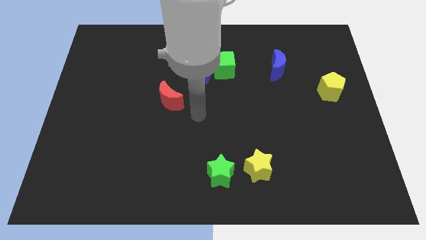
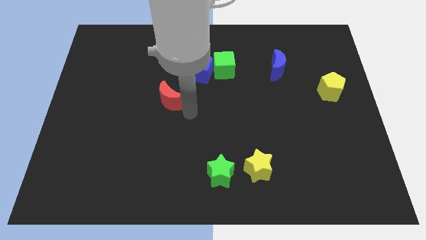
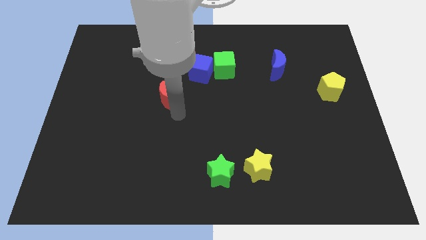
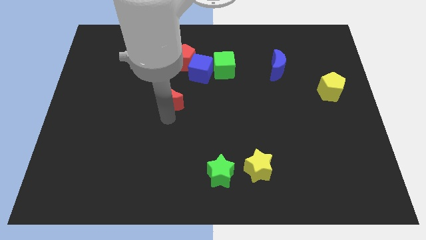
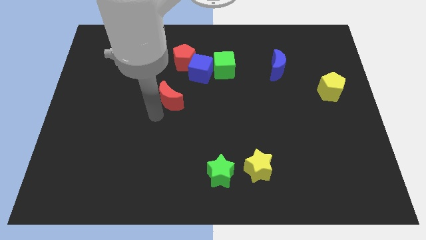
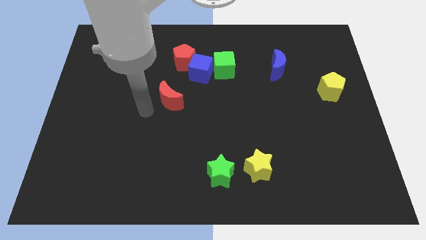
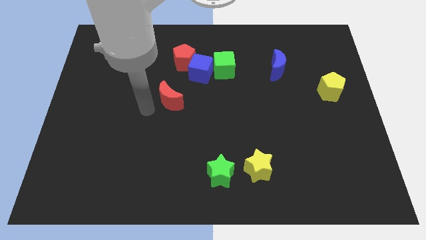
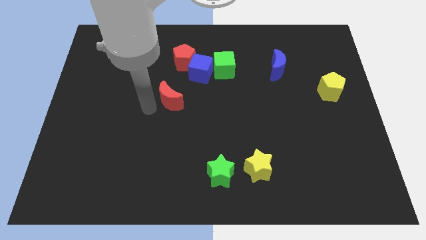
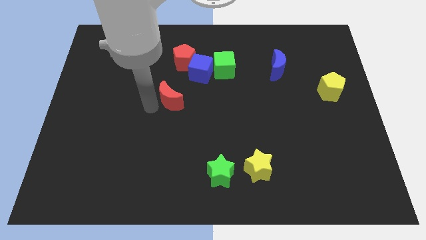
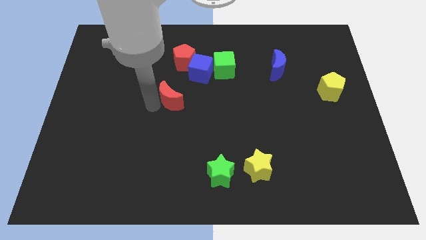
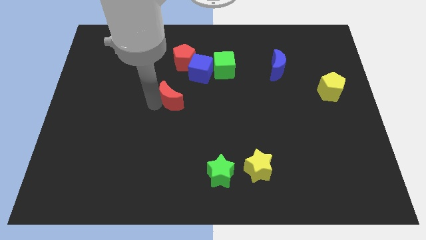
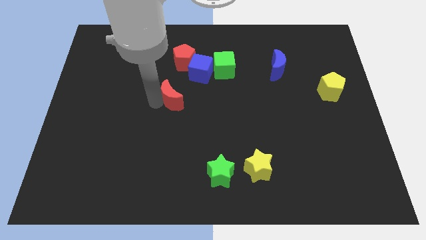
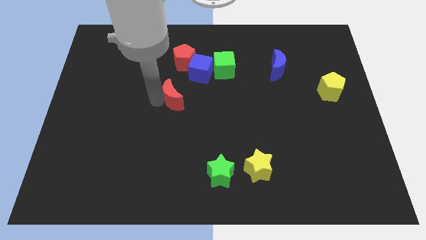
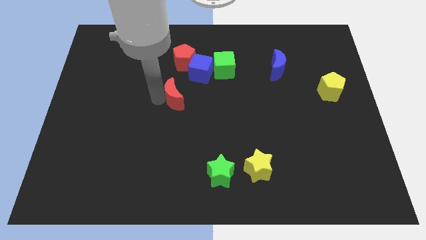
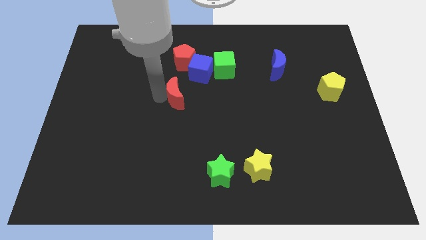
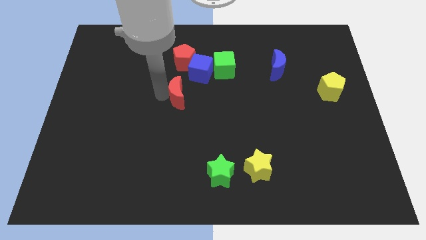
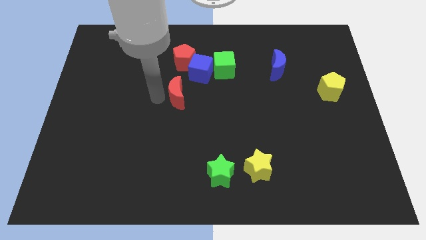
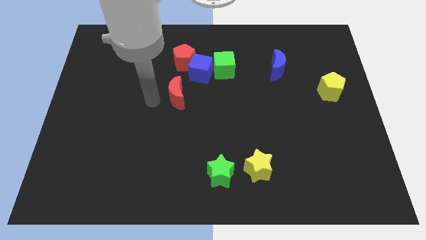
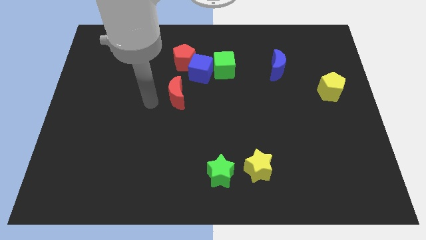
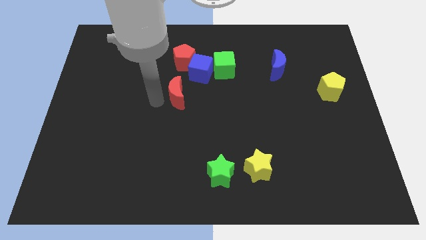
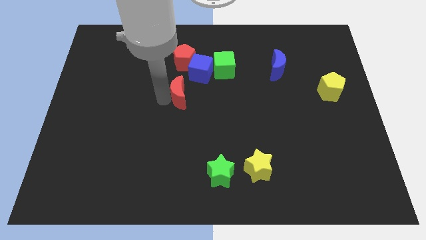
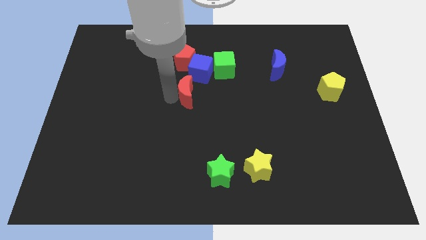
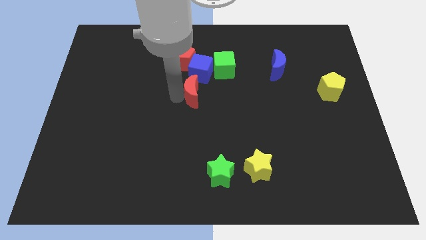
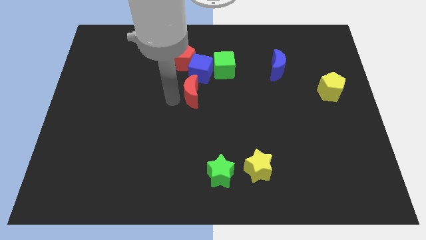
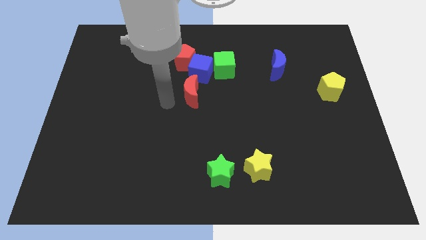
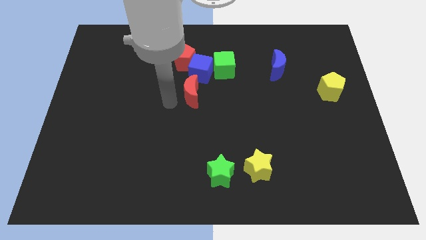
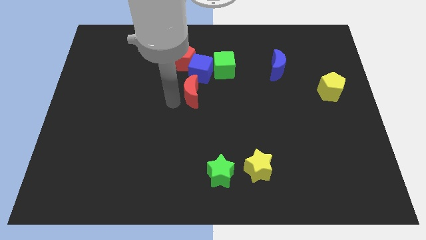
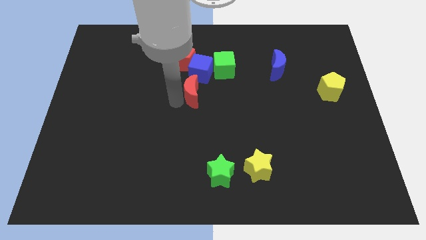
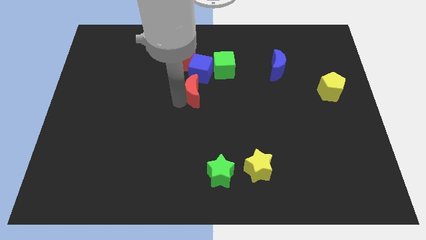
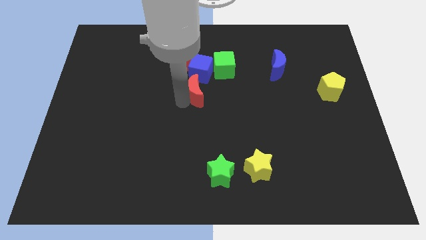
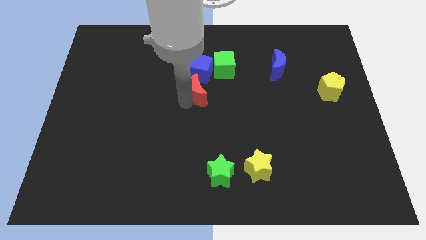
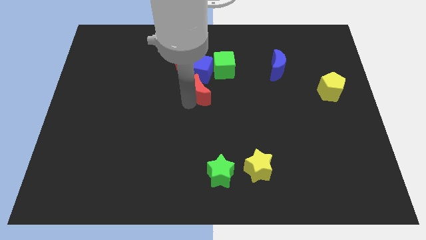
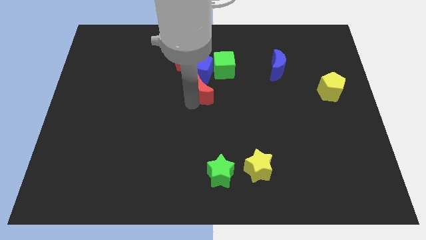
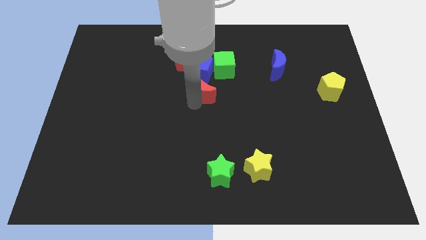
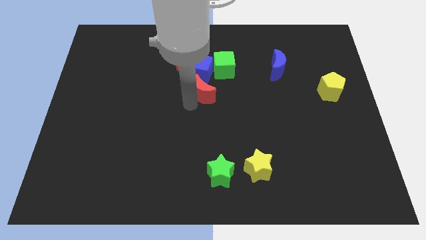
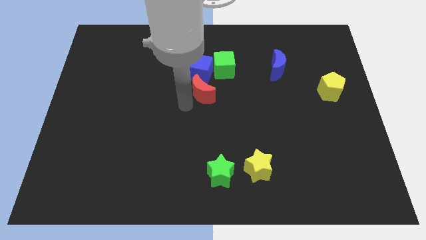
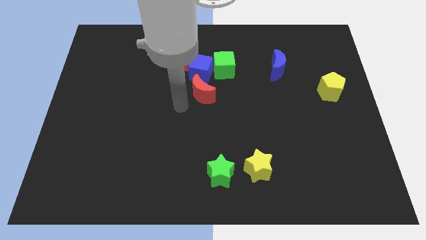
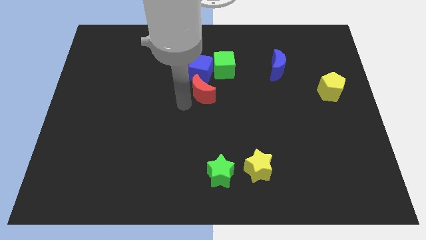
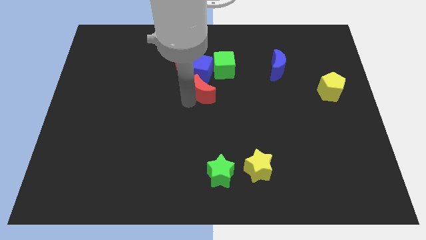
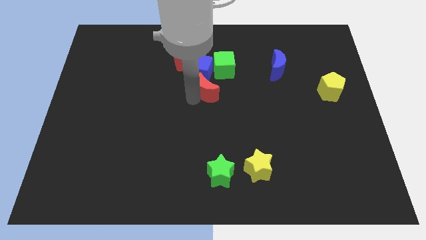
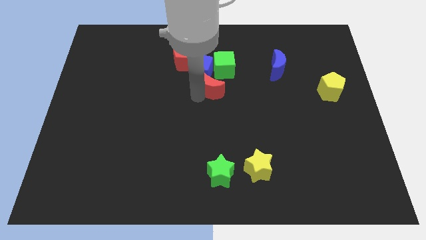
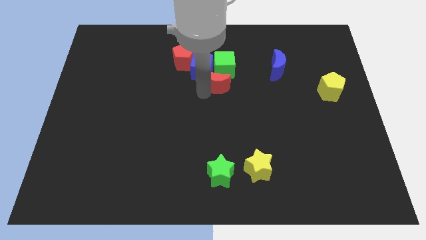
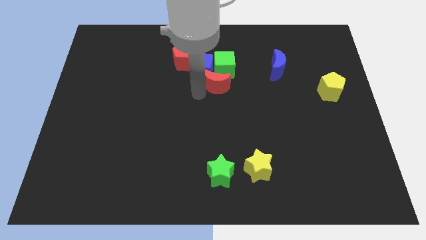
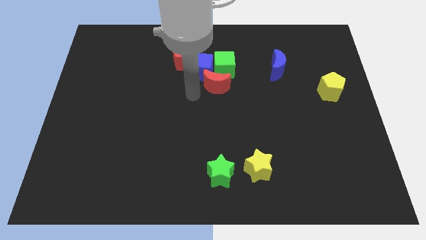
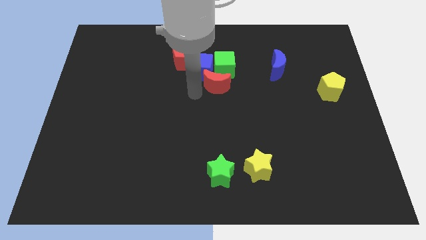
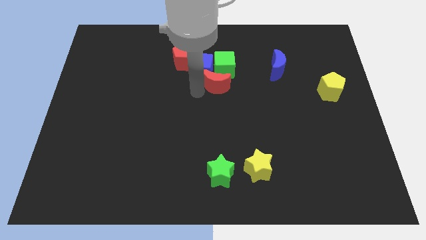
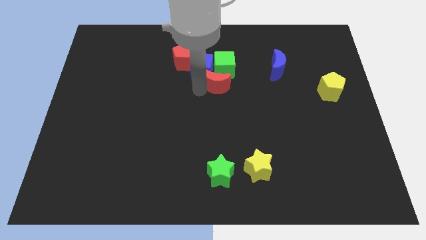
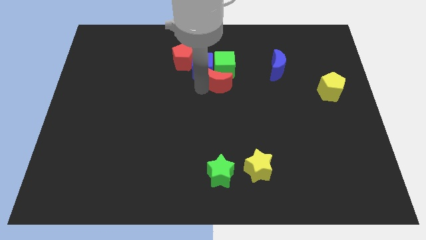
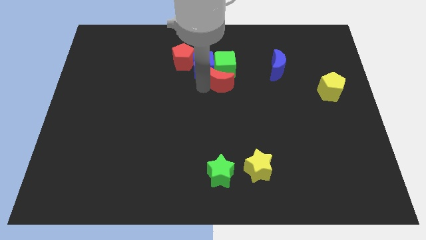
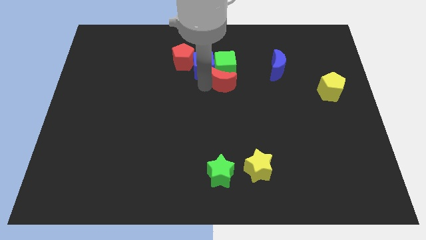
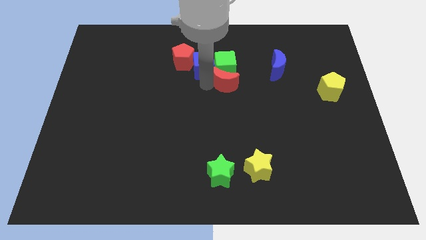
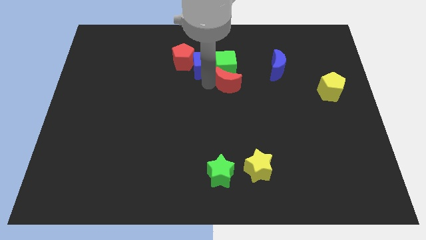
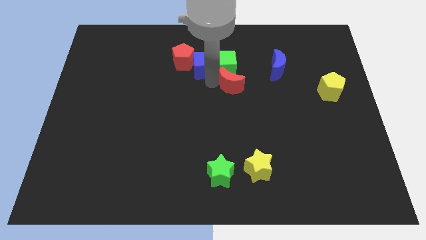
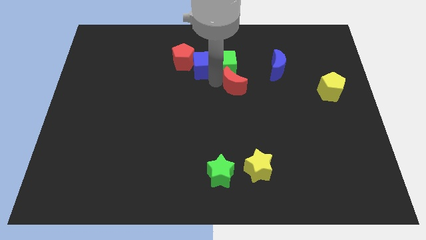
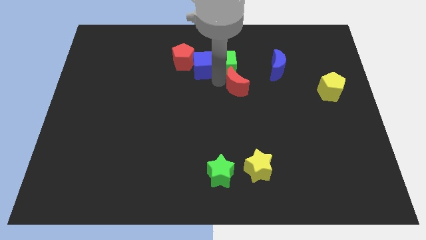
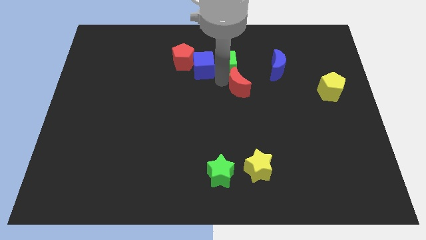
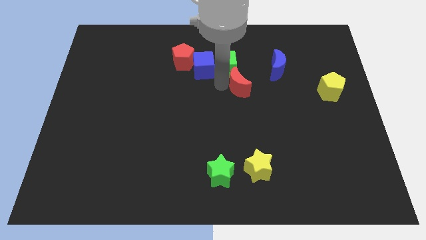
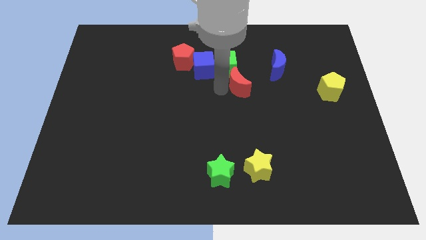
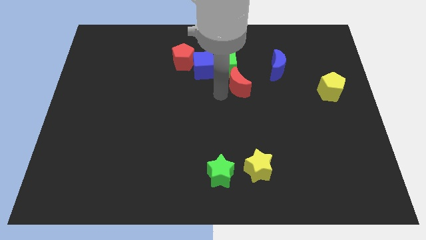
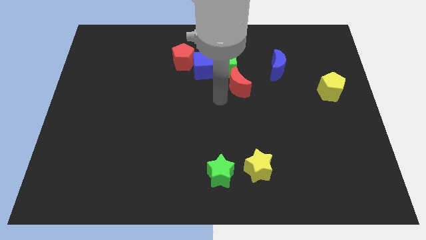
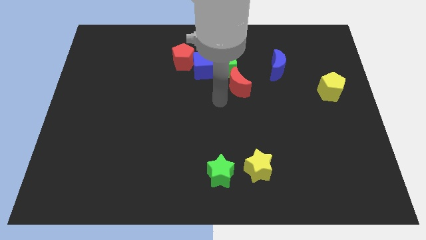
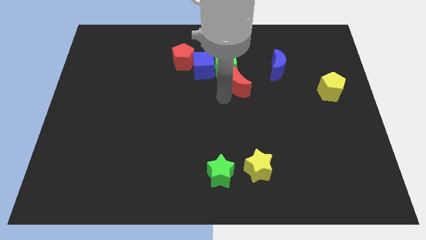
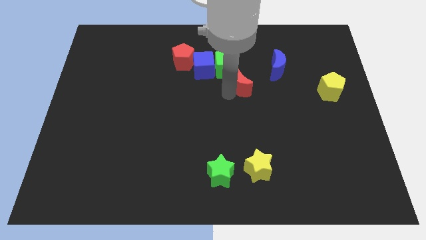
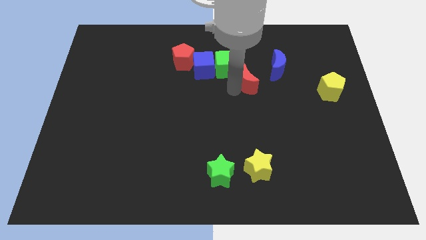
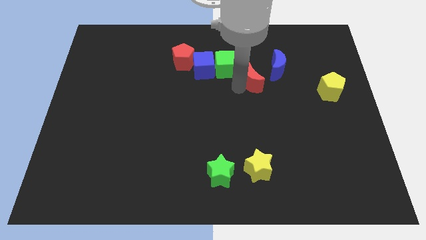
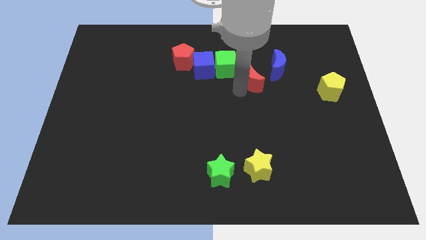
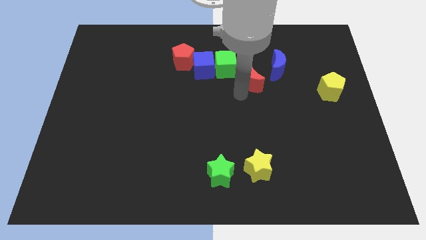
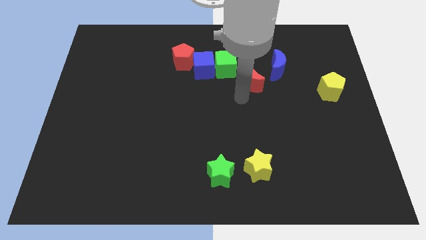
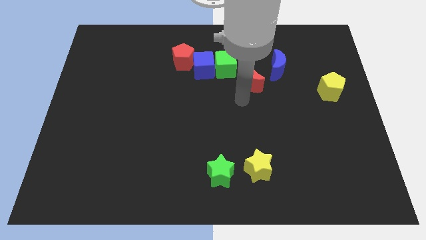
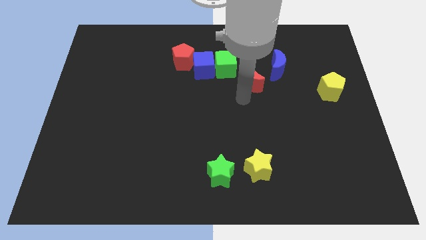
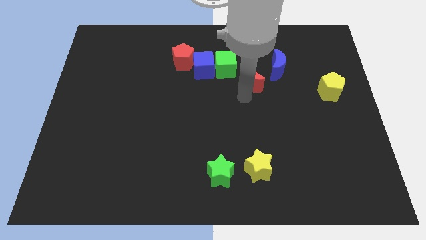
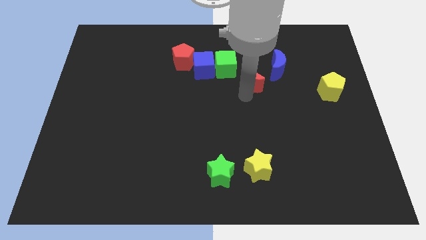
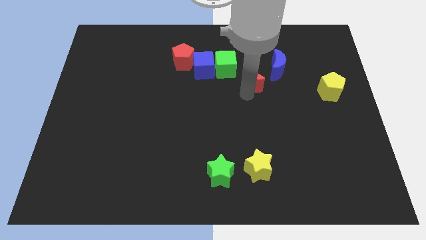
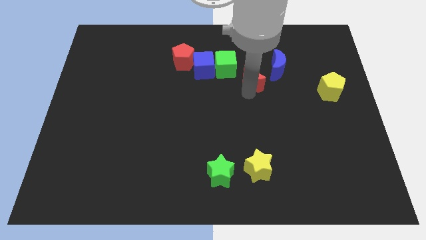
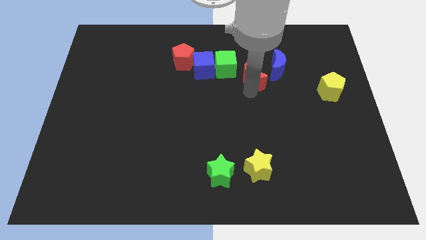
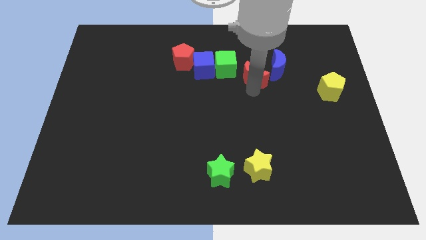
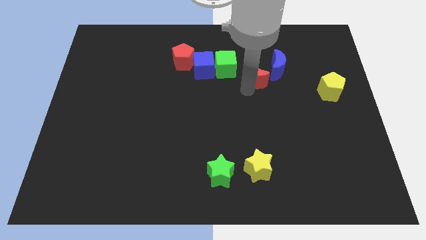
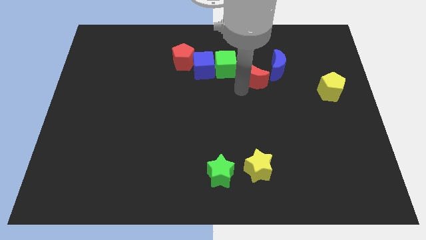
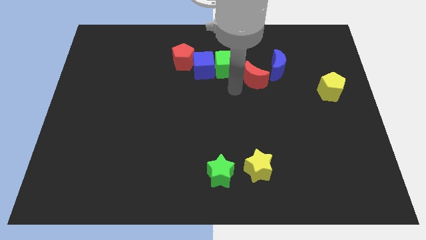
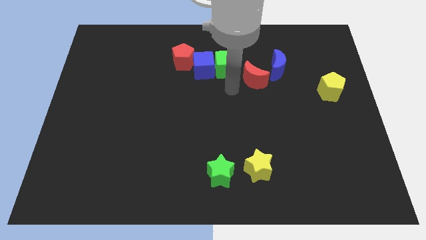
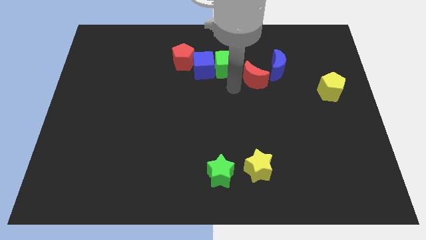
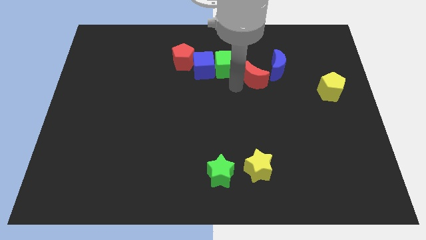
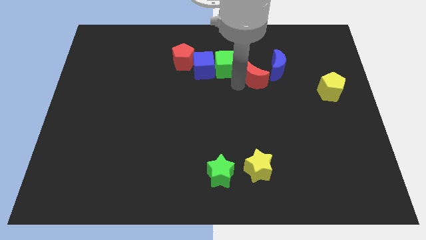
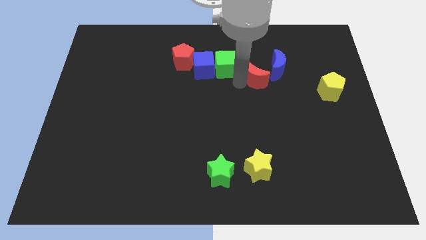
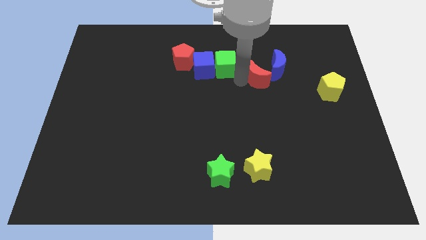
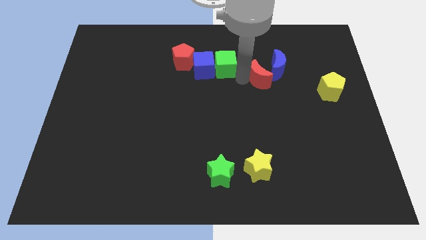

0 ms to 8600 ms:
slide the red moon to the blue moon
